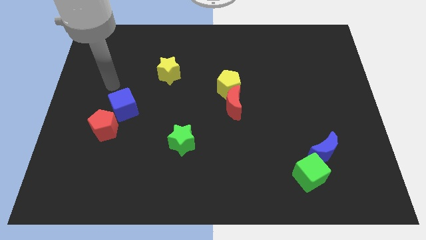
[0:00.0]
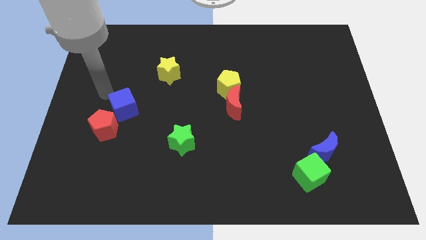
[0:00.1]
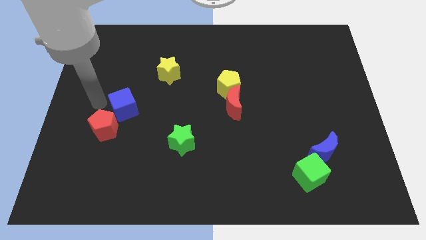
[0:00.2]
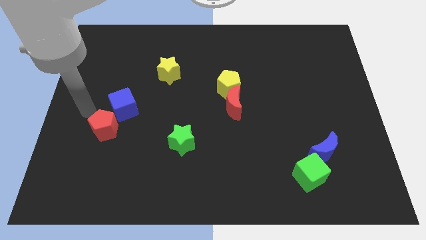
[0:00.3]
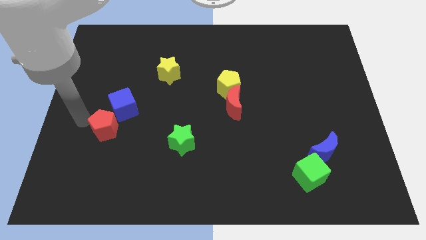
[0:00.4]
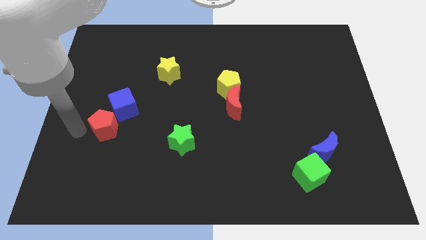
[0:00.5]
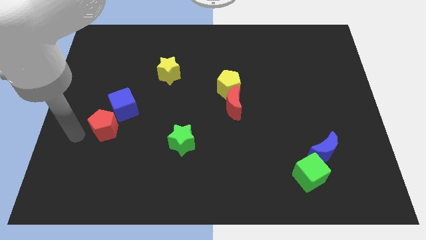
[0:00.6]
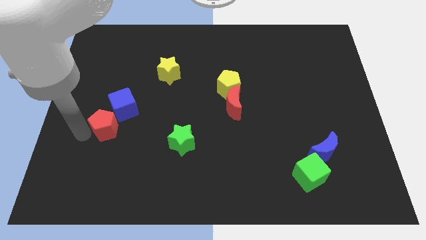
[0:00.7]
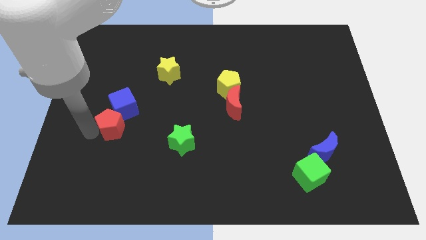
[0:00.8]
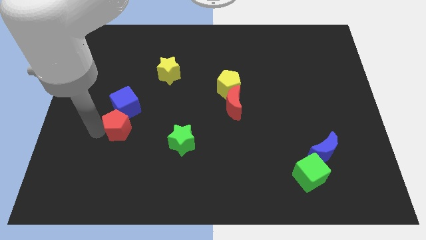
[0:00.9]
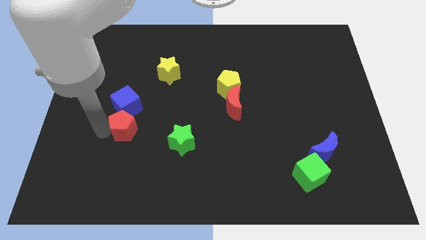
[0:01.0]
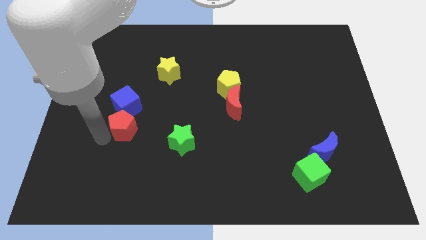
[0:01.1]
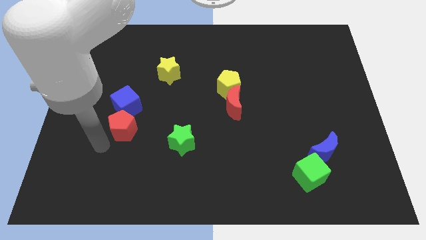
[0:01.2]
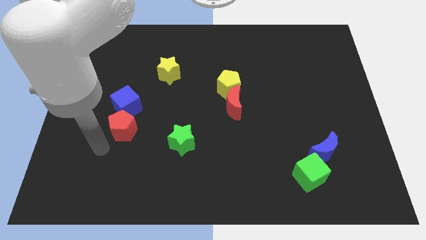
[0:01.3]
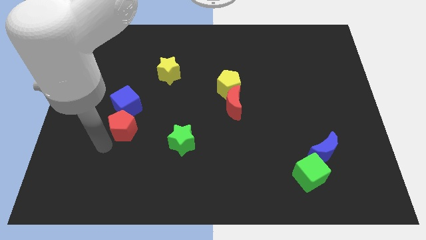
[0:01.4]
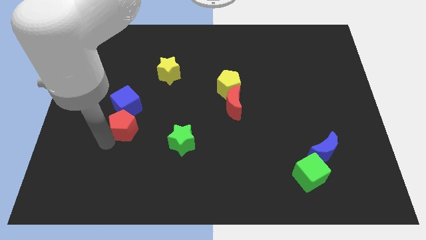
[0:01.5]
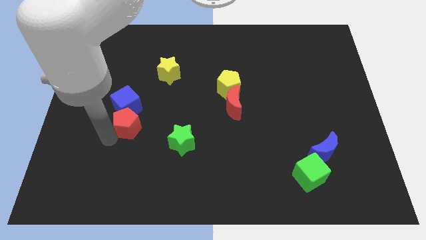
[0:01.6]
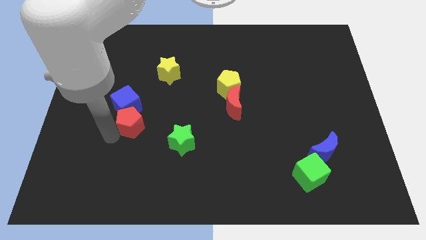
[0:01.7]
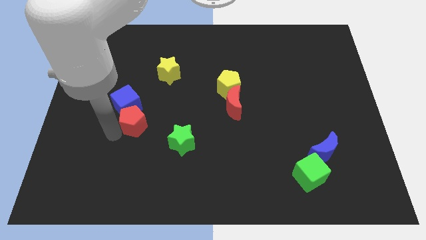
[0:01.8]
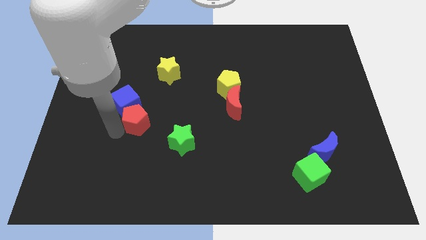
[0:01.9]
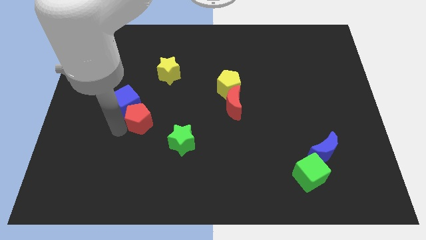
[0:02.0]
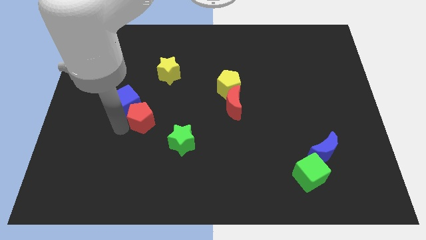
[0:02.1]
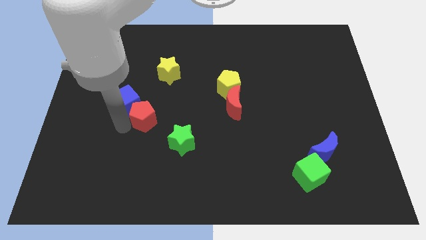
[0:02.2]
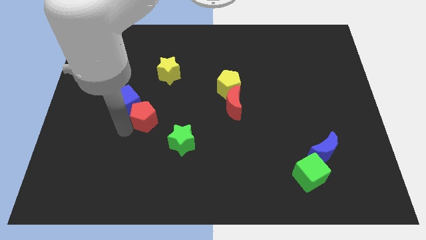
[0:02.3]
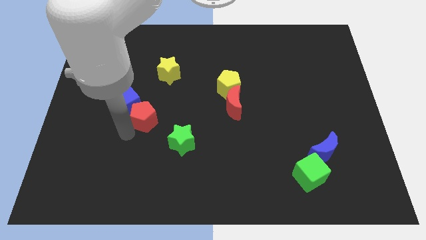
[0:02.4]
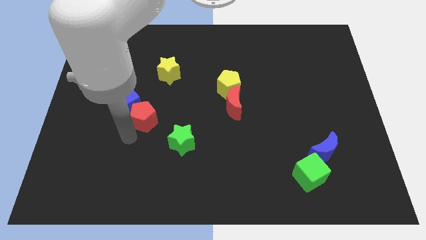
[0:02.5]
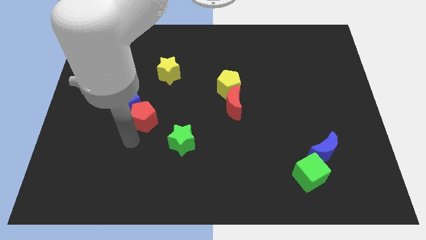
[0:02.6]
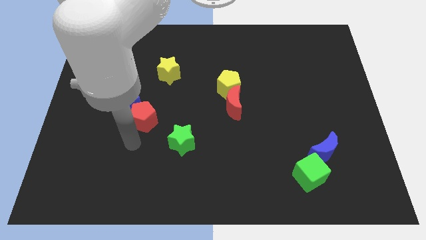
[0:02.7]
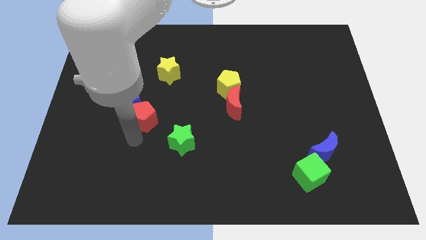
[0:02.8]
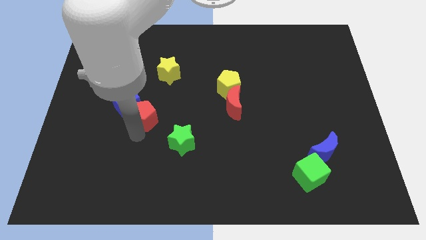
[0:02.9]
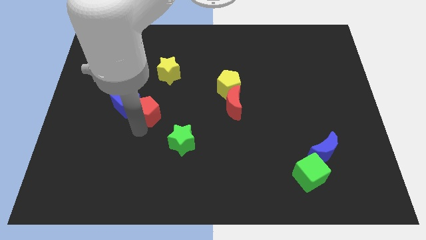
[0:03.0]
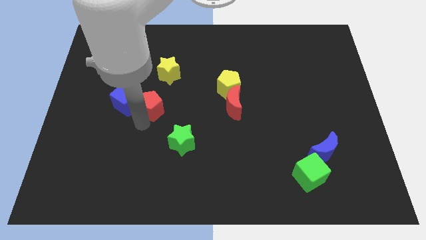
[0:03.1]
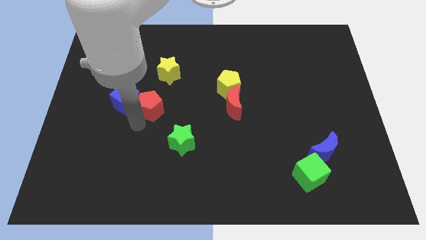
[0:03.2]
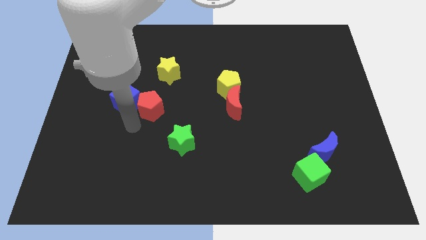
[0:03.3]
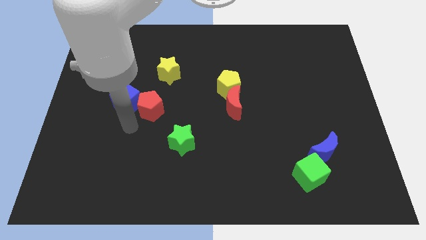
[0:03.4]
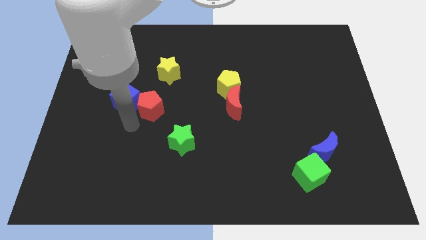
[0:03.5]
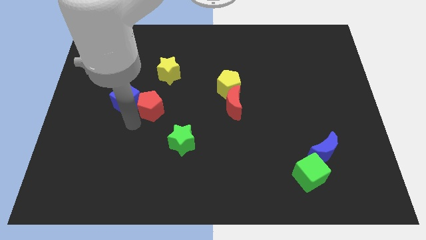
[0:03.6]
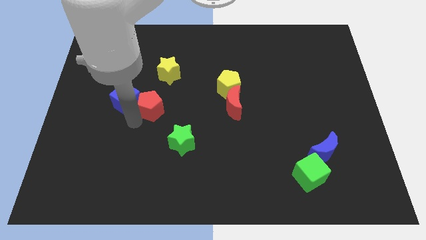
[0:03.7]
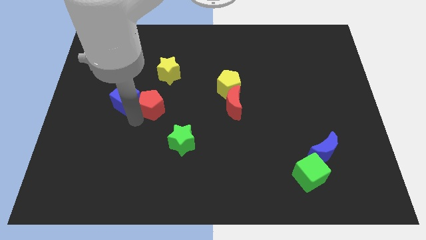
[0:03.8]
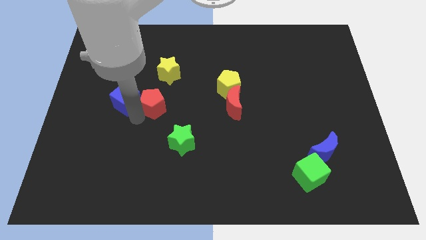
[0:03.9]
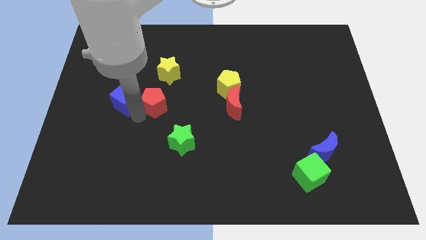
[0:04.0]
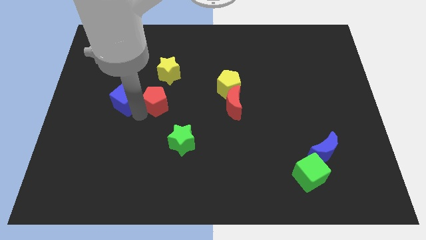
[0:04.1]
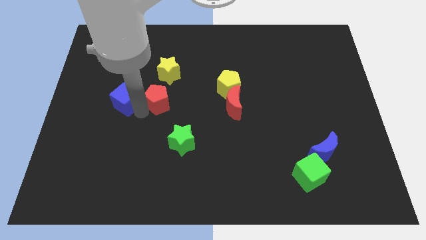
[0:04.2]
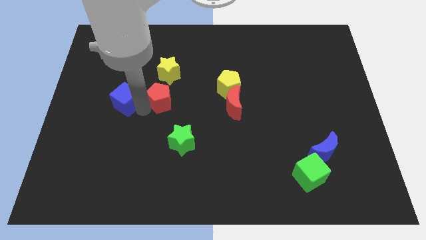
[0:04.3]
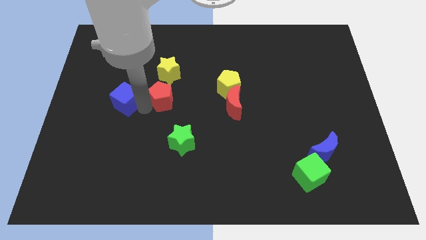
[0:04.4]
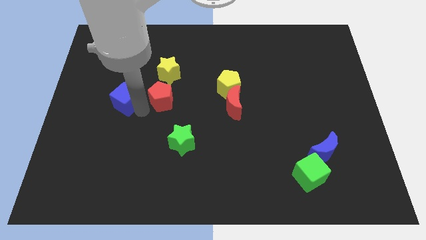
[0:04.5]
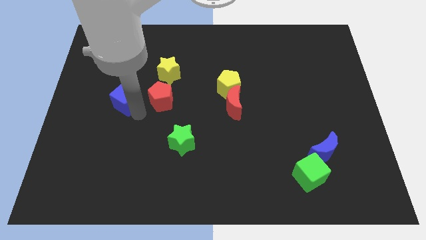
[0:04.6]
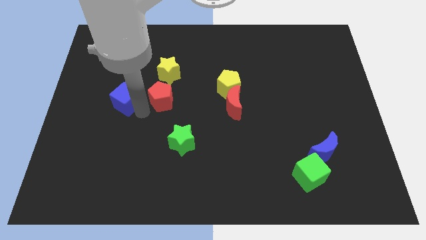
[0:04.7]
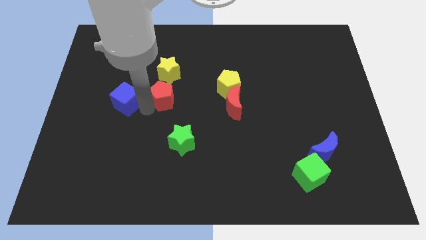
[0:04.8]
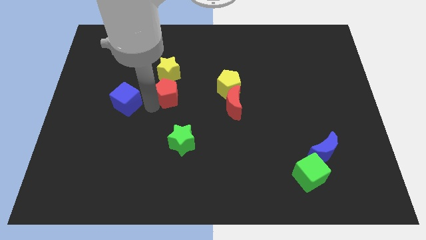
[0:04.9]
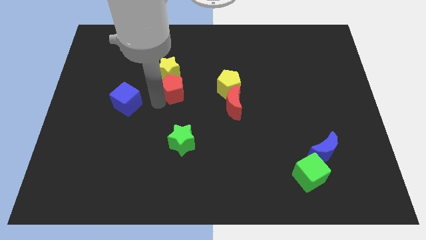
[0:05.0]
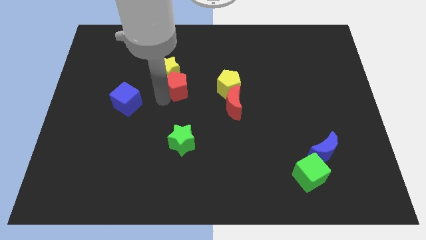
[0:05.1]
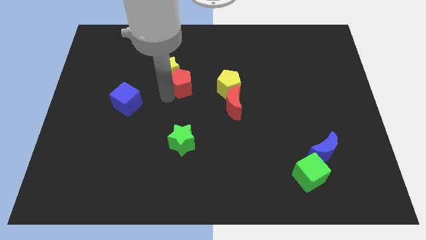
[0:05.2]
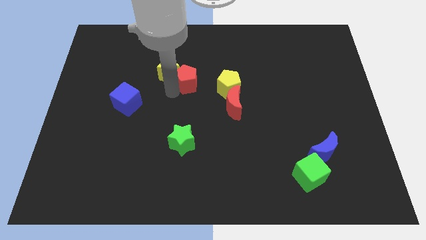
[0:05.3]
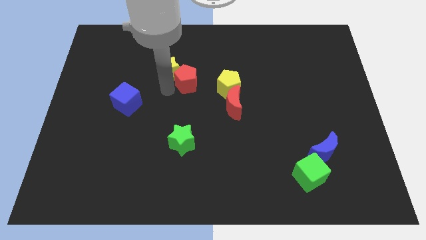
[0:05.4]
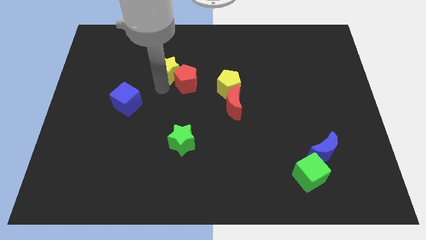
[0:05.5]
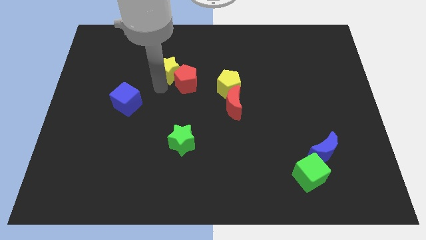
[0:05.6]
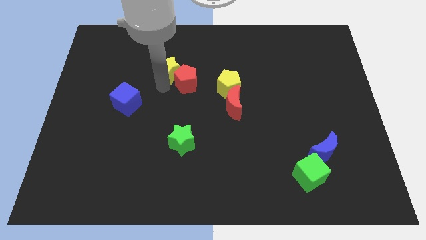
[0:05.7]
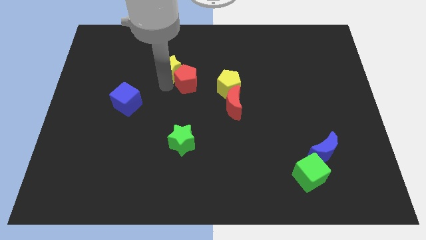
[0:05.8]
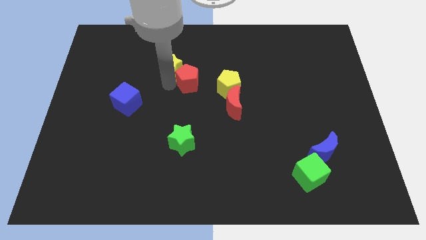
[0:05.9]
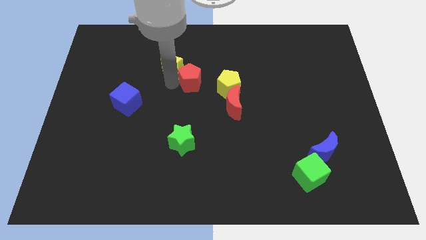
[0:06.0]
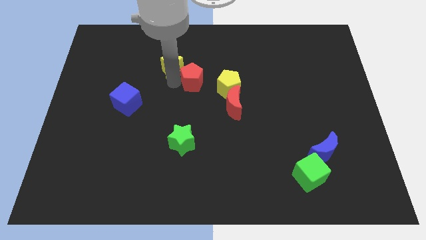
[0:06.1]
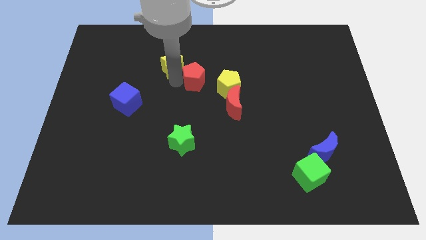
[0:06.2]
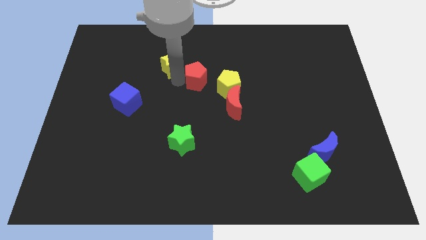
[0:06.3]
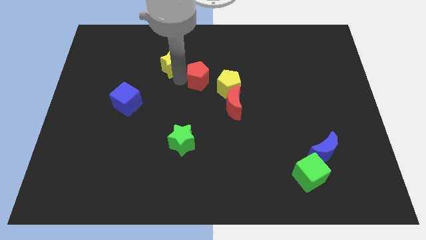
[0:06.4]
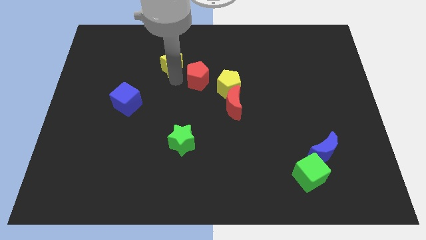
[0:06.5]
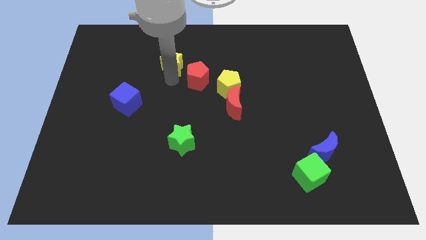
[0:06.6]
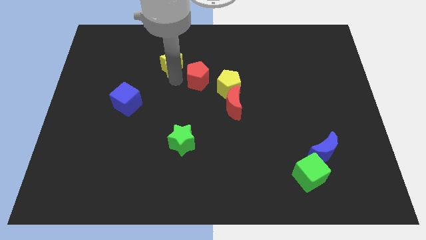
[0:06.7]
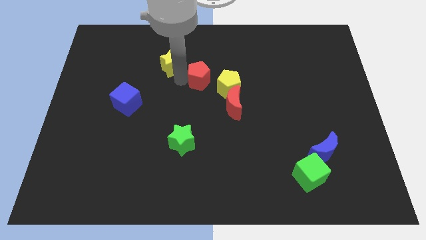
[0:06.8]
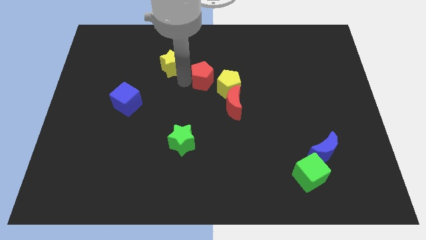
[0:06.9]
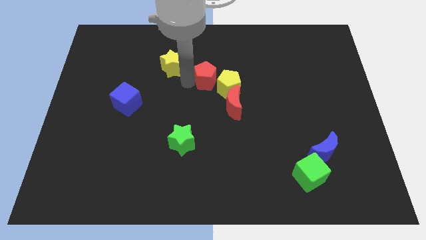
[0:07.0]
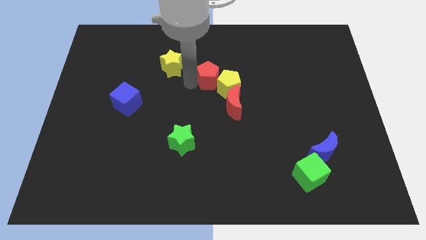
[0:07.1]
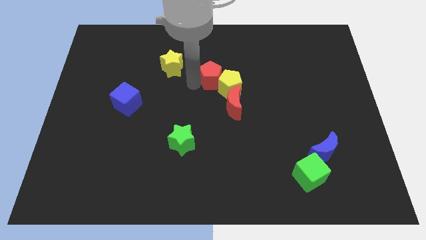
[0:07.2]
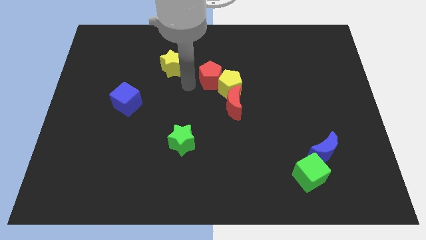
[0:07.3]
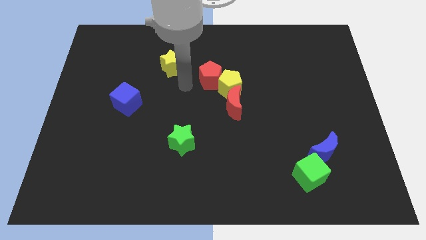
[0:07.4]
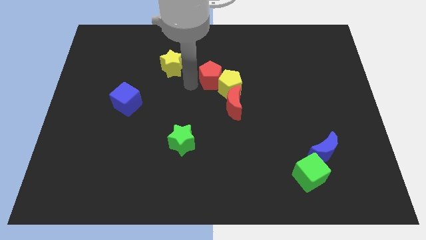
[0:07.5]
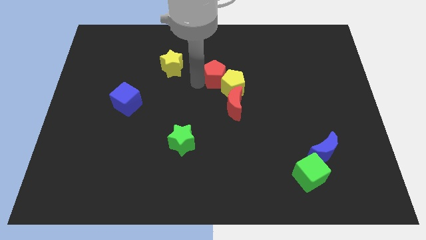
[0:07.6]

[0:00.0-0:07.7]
slide the red pentagon to the top side of the red moon
